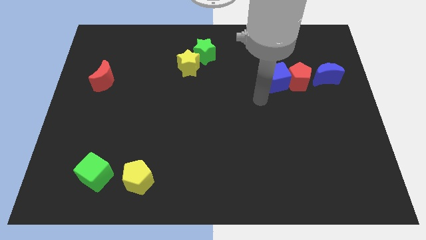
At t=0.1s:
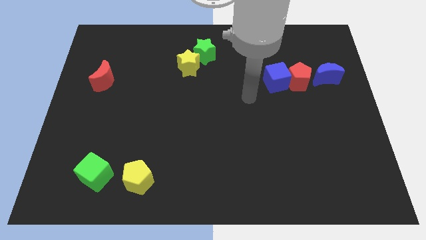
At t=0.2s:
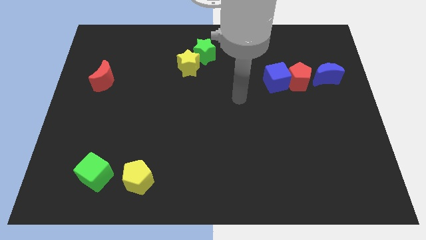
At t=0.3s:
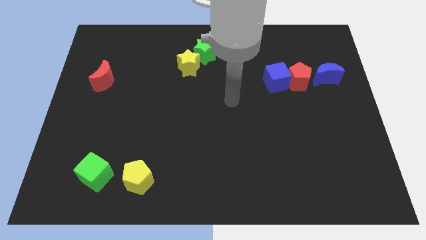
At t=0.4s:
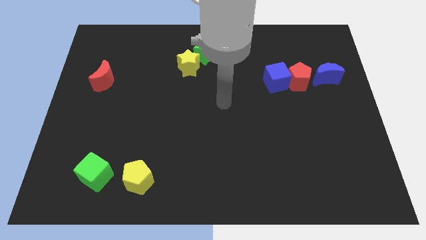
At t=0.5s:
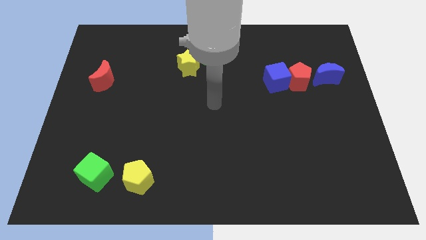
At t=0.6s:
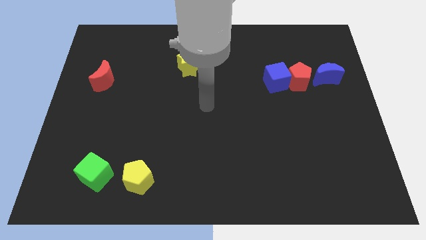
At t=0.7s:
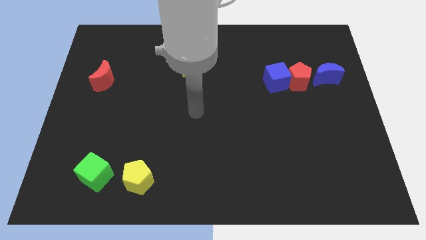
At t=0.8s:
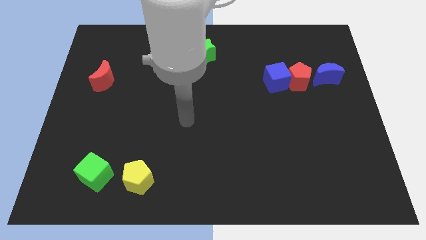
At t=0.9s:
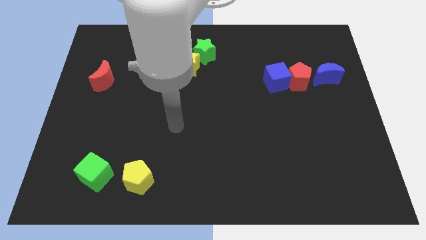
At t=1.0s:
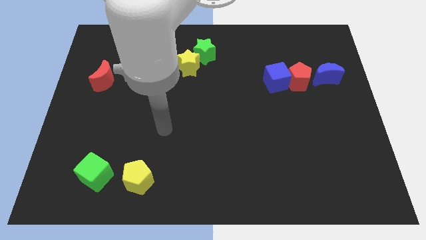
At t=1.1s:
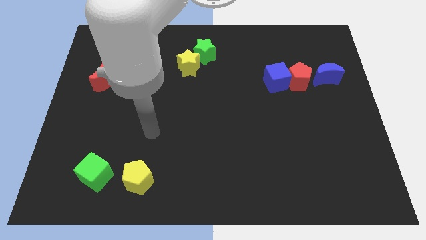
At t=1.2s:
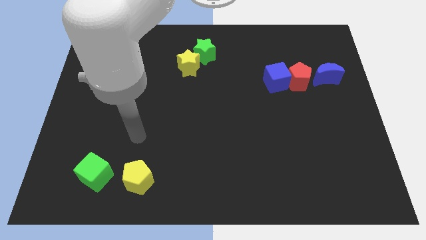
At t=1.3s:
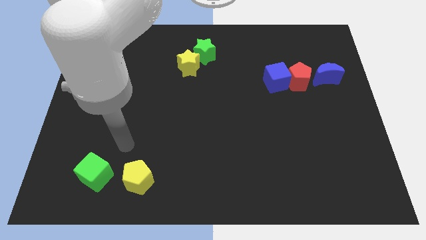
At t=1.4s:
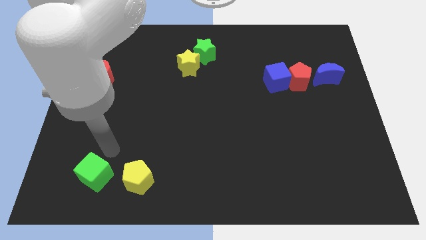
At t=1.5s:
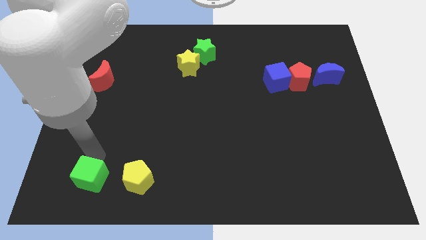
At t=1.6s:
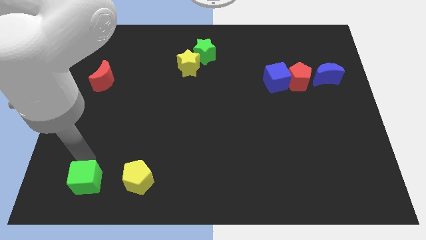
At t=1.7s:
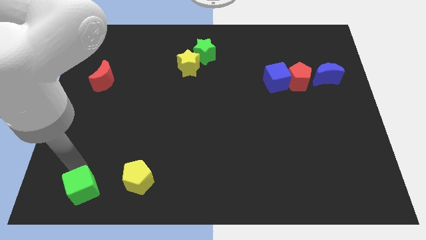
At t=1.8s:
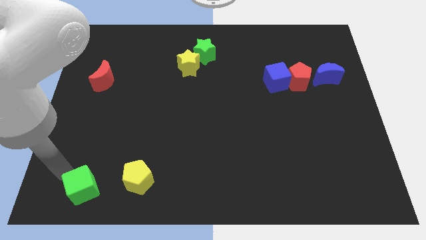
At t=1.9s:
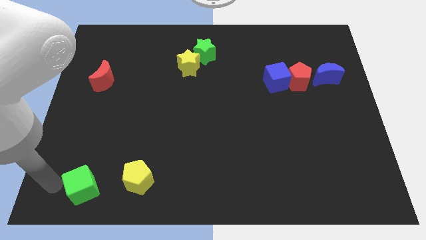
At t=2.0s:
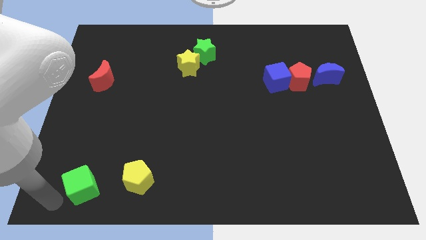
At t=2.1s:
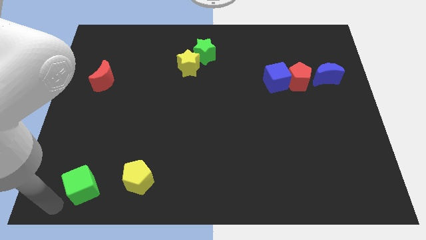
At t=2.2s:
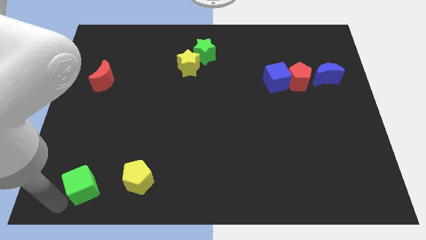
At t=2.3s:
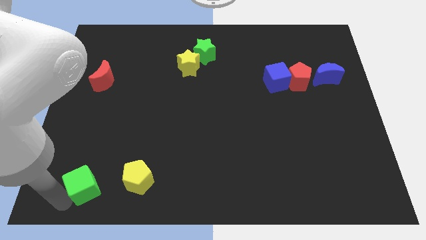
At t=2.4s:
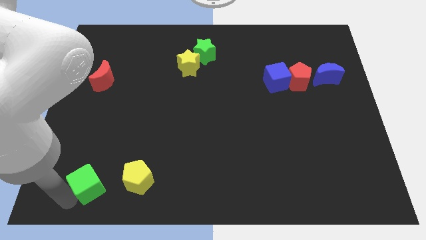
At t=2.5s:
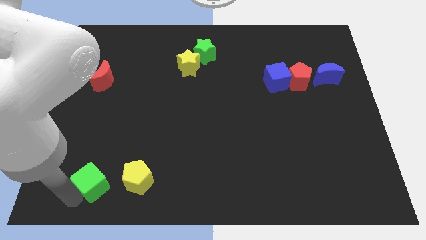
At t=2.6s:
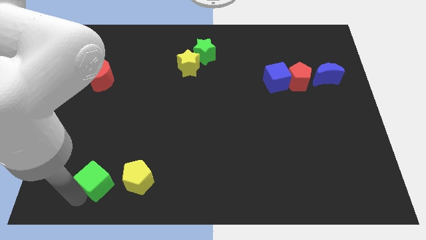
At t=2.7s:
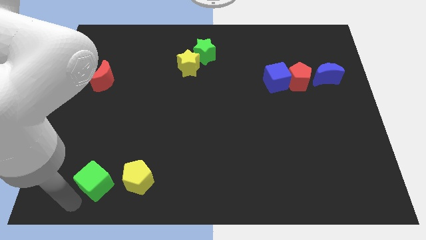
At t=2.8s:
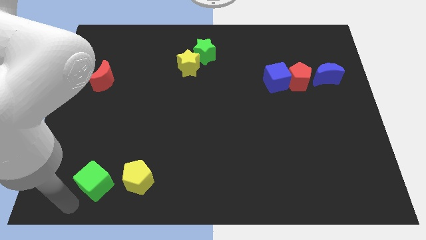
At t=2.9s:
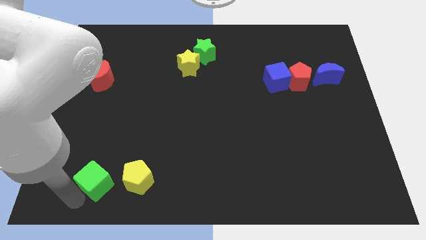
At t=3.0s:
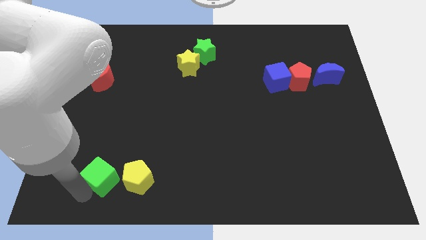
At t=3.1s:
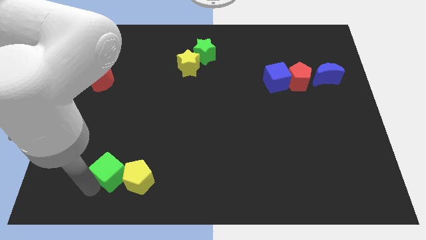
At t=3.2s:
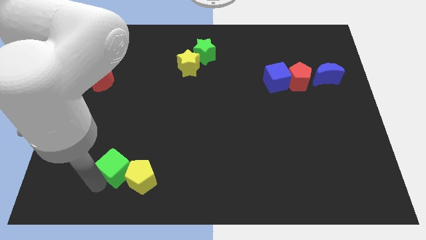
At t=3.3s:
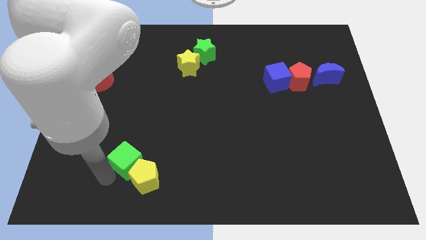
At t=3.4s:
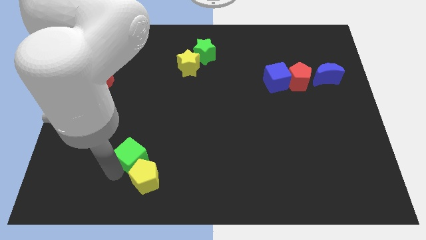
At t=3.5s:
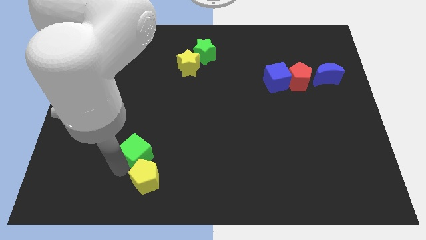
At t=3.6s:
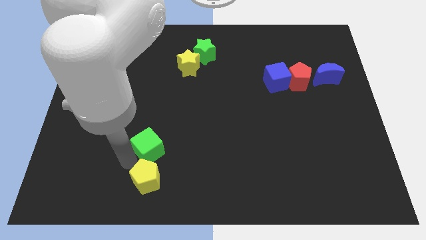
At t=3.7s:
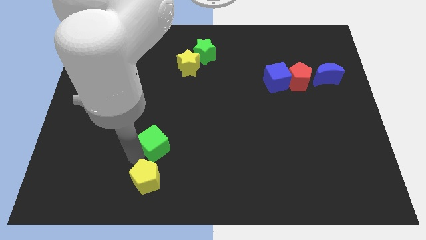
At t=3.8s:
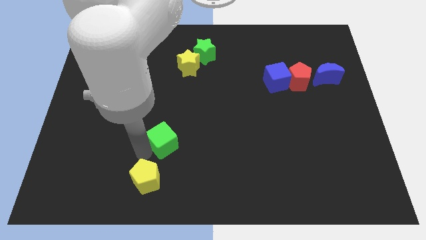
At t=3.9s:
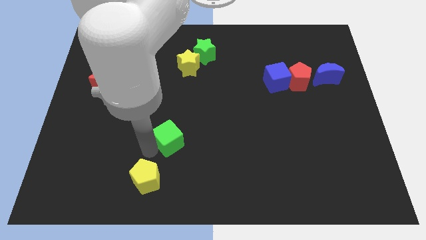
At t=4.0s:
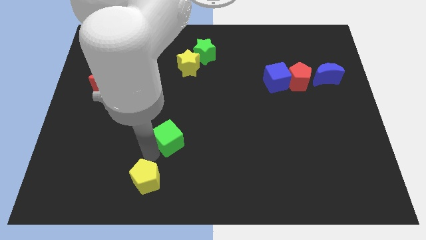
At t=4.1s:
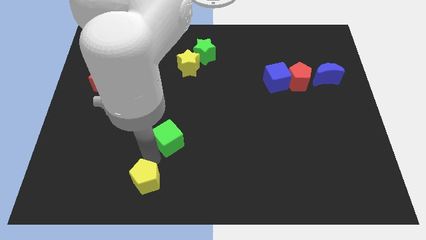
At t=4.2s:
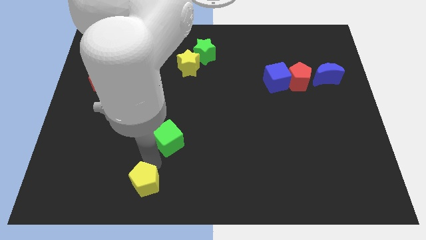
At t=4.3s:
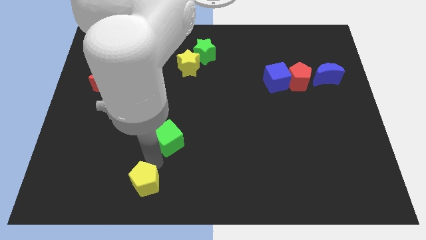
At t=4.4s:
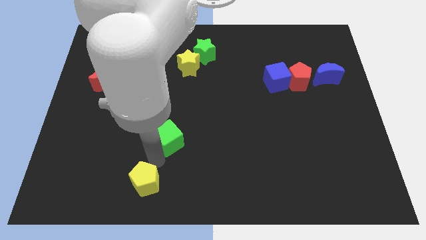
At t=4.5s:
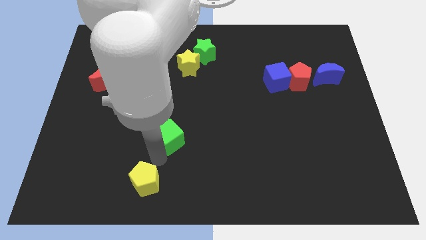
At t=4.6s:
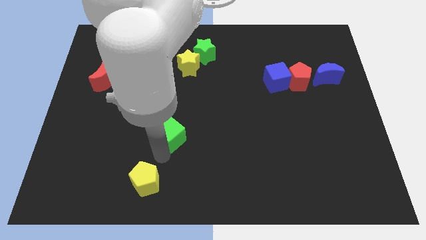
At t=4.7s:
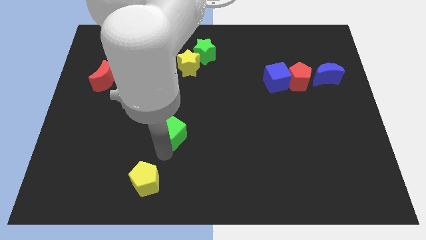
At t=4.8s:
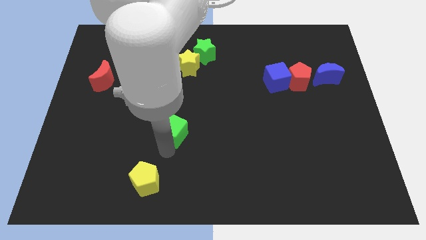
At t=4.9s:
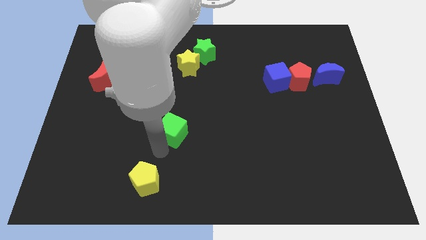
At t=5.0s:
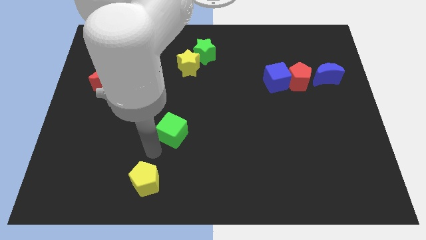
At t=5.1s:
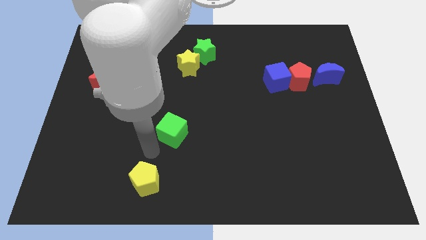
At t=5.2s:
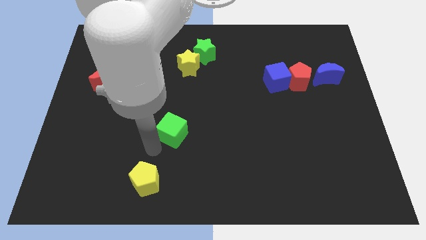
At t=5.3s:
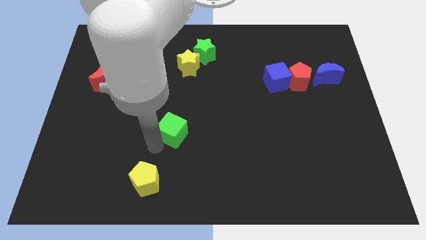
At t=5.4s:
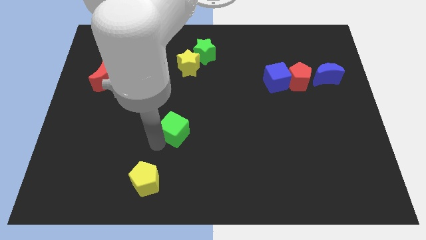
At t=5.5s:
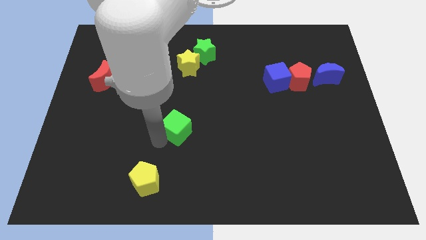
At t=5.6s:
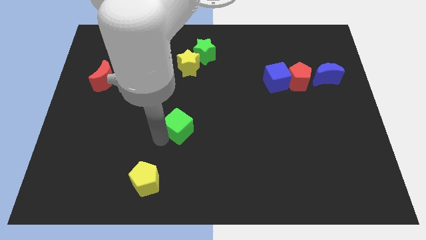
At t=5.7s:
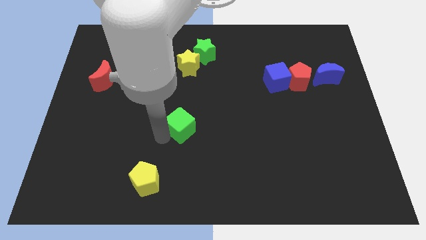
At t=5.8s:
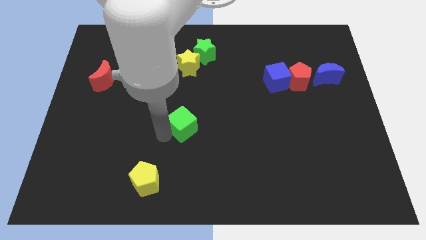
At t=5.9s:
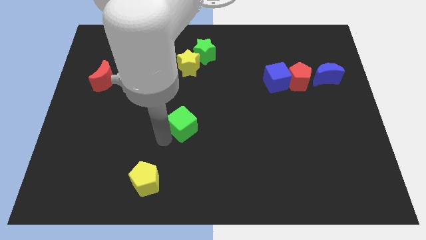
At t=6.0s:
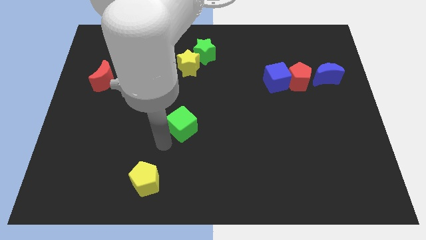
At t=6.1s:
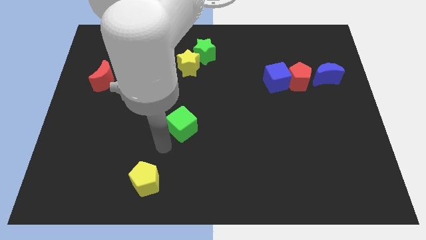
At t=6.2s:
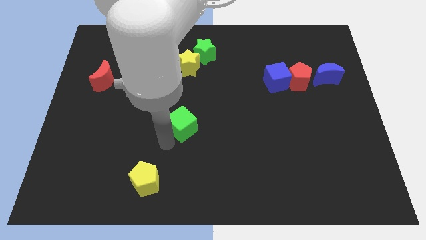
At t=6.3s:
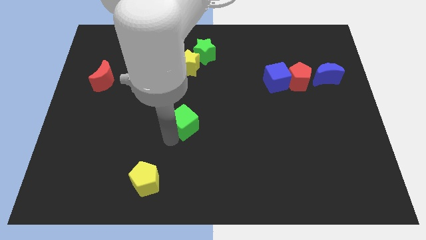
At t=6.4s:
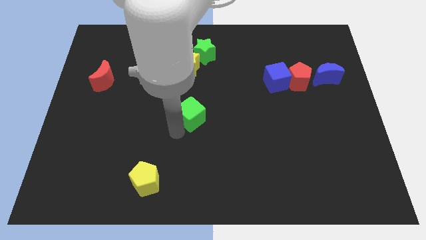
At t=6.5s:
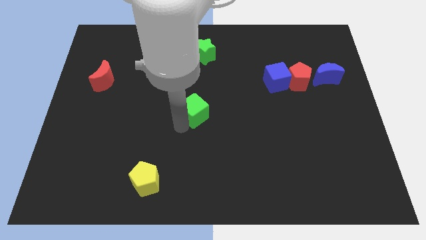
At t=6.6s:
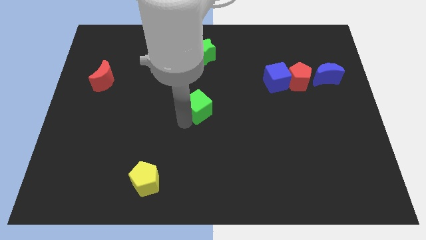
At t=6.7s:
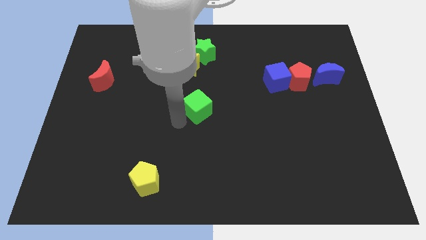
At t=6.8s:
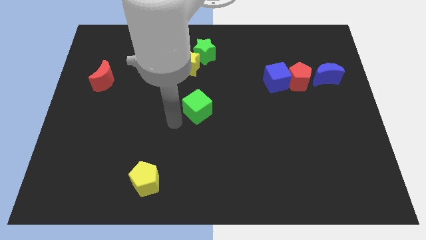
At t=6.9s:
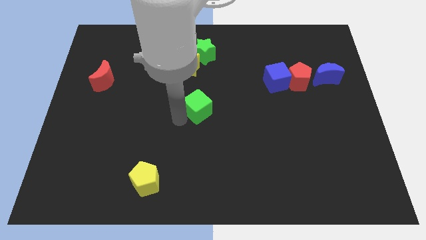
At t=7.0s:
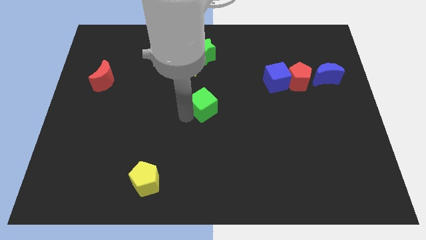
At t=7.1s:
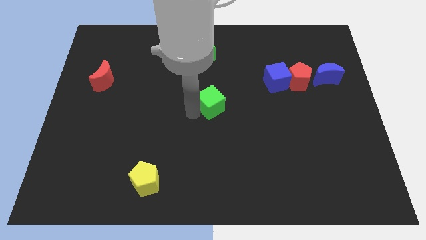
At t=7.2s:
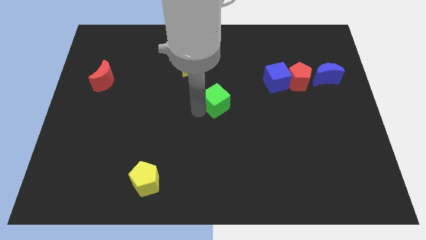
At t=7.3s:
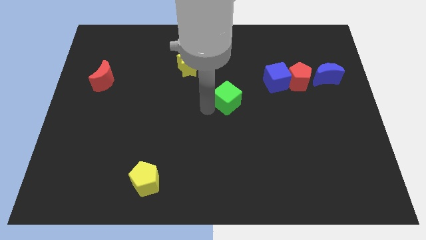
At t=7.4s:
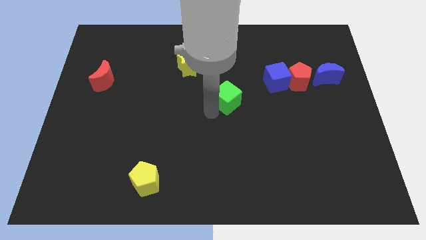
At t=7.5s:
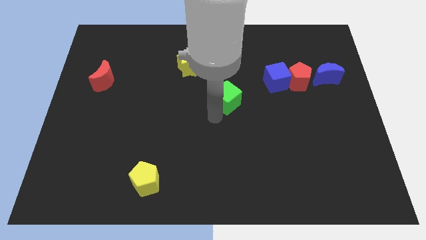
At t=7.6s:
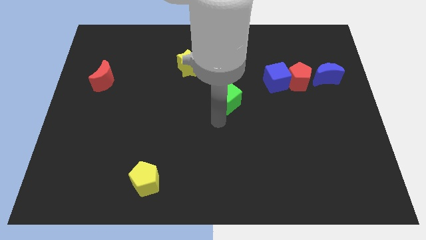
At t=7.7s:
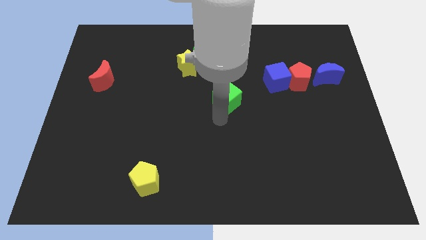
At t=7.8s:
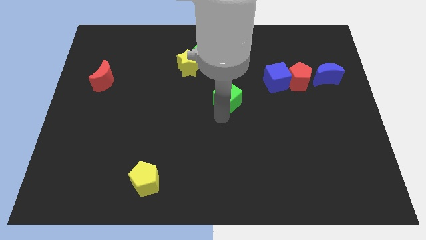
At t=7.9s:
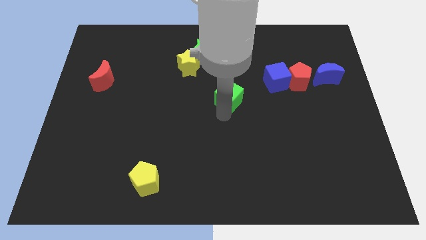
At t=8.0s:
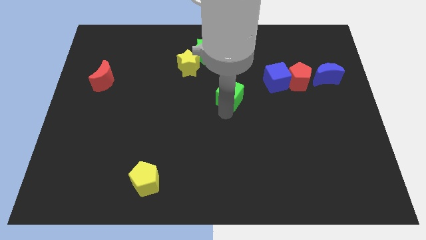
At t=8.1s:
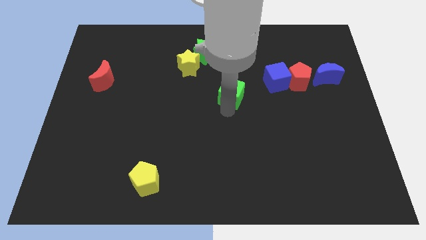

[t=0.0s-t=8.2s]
slide the green cube to the left of the blue cube
